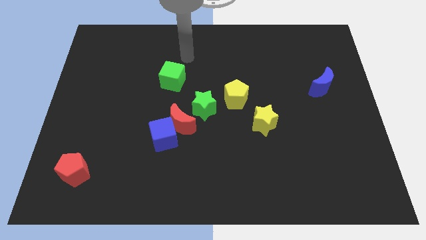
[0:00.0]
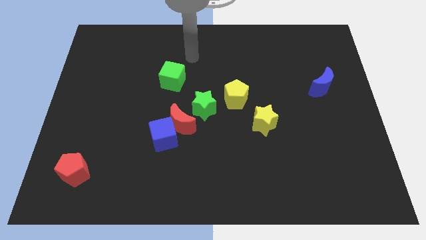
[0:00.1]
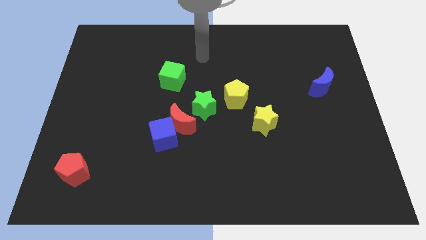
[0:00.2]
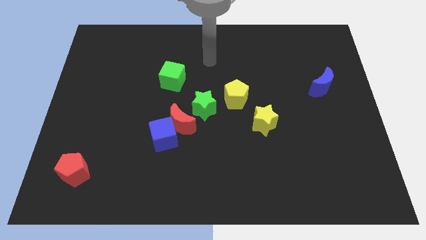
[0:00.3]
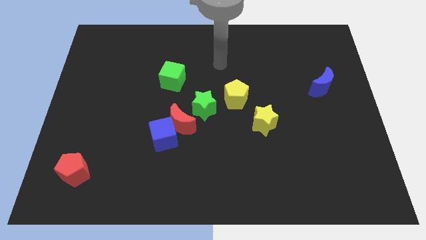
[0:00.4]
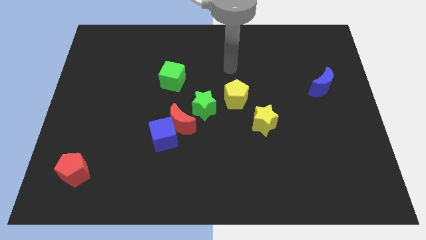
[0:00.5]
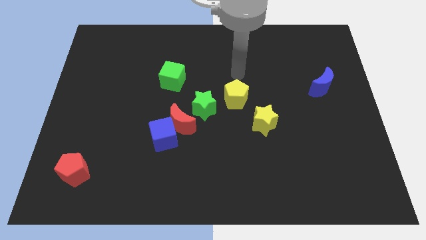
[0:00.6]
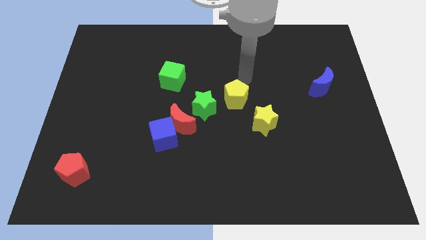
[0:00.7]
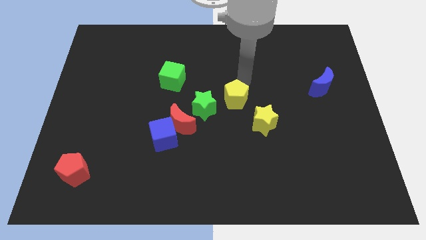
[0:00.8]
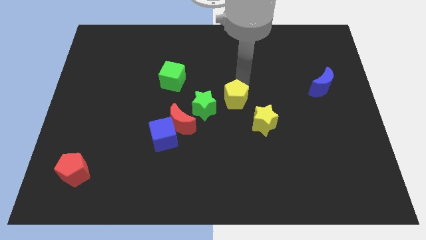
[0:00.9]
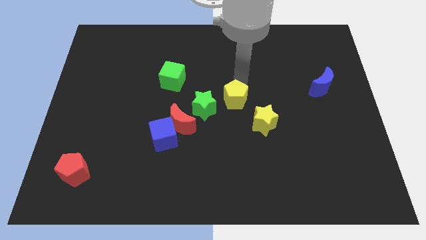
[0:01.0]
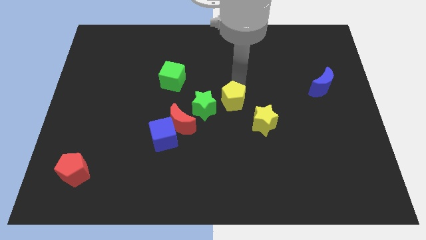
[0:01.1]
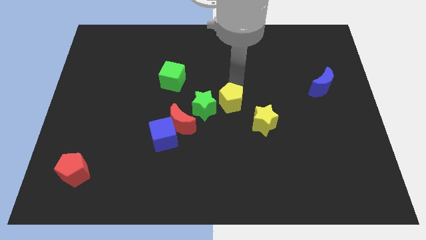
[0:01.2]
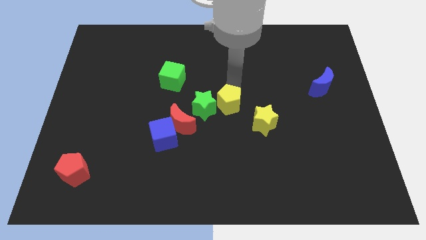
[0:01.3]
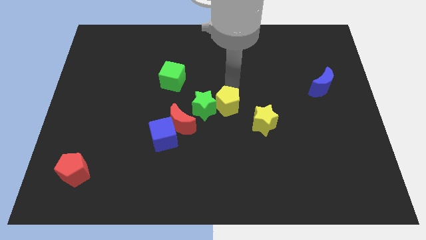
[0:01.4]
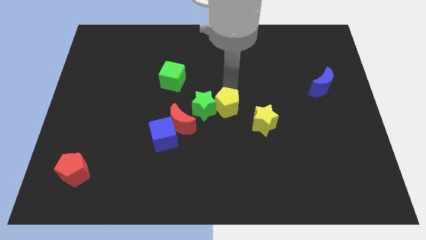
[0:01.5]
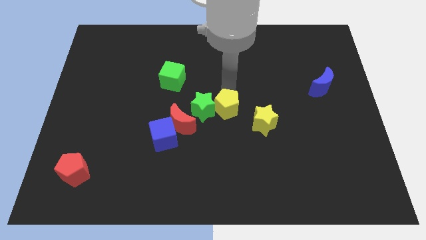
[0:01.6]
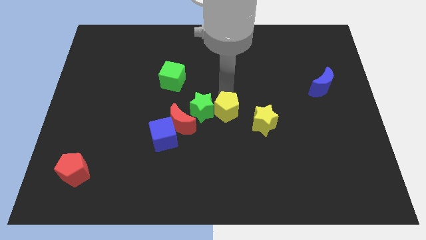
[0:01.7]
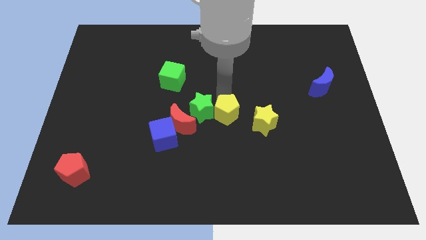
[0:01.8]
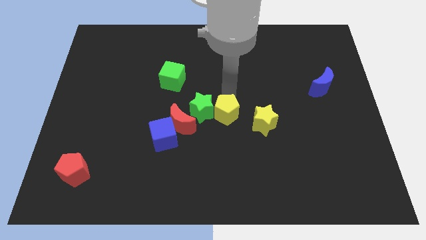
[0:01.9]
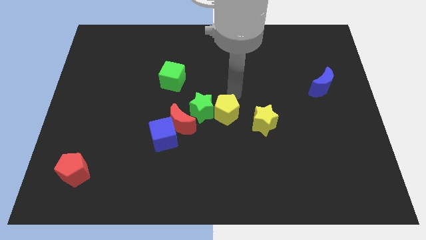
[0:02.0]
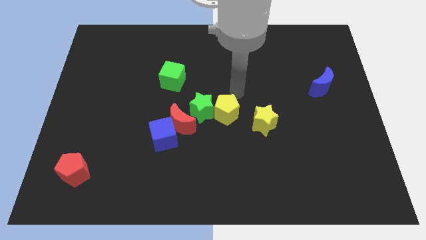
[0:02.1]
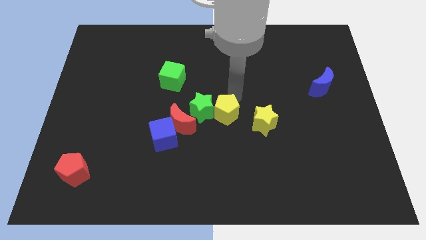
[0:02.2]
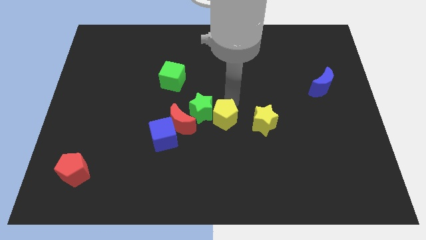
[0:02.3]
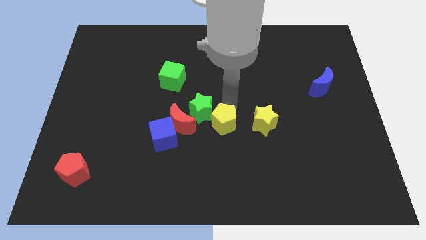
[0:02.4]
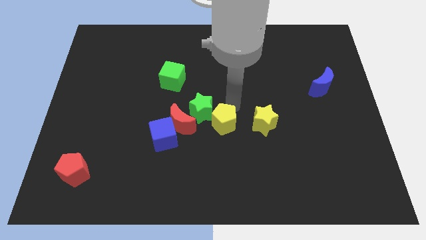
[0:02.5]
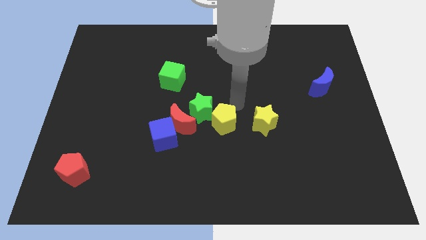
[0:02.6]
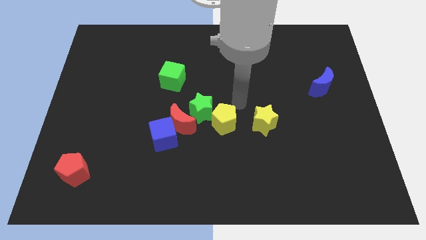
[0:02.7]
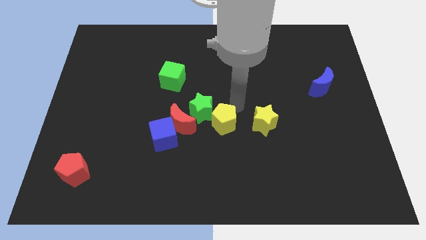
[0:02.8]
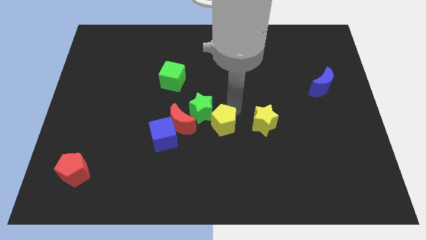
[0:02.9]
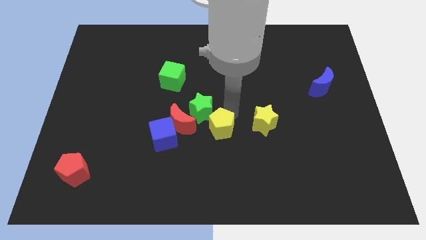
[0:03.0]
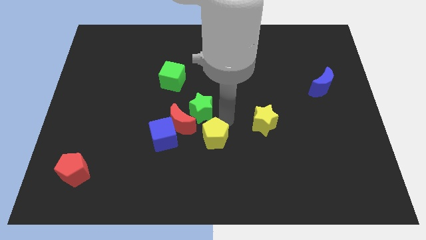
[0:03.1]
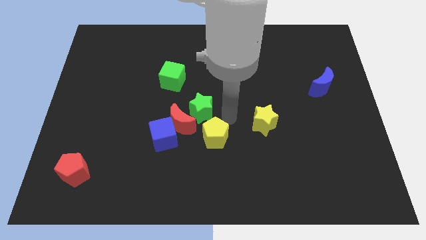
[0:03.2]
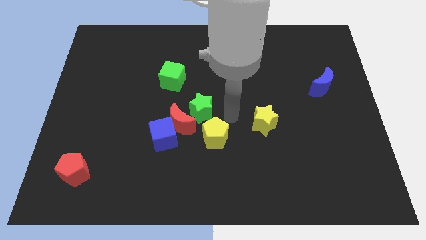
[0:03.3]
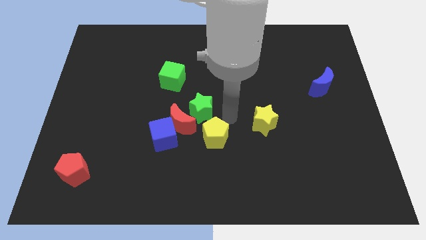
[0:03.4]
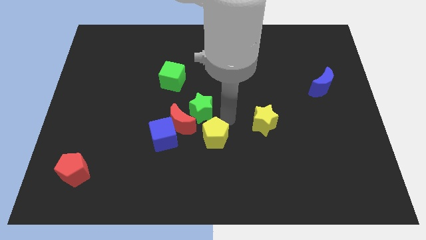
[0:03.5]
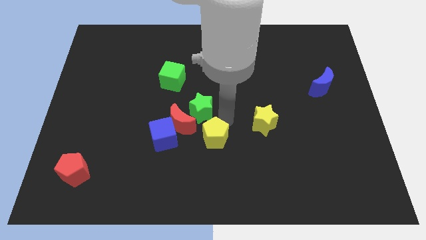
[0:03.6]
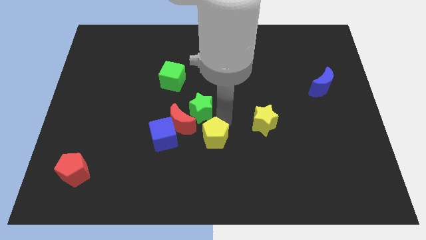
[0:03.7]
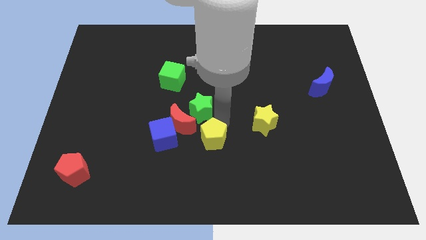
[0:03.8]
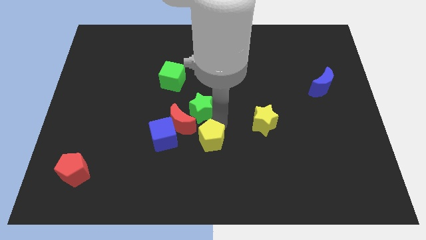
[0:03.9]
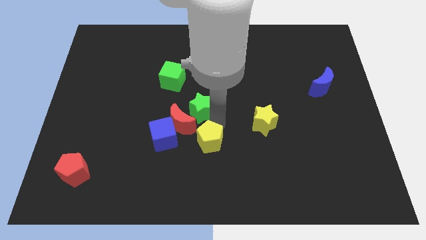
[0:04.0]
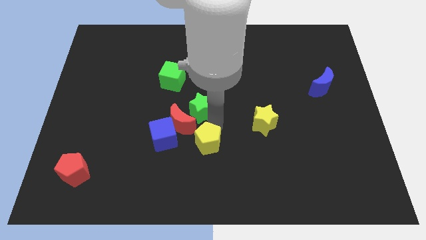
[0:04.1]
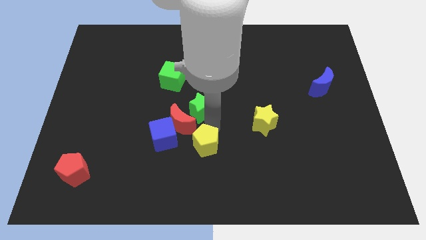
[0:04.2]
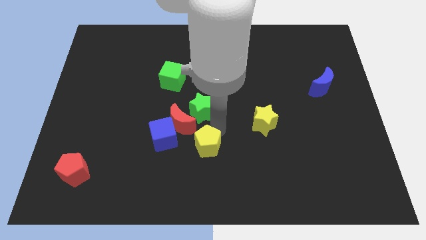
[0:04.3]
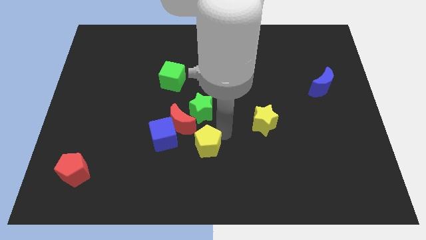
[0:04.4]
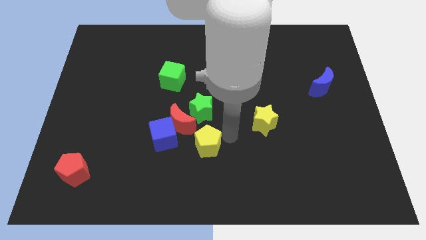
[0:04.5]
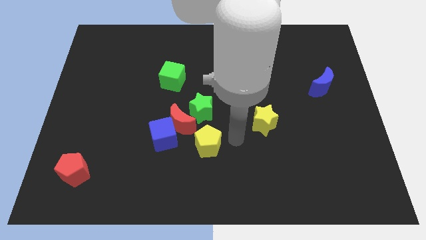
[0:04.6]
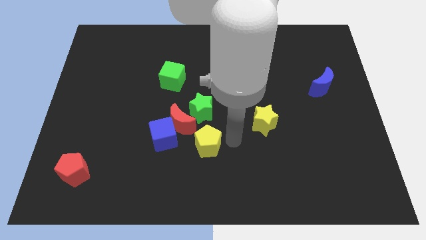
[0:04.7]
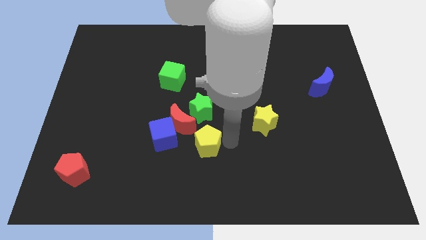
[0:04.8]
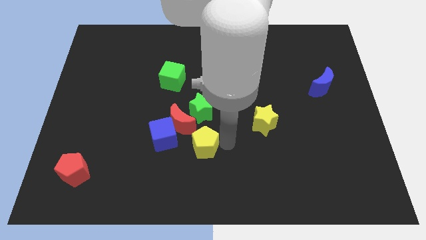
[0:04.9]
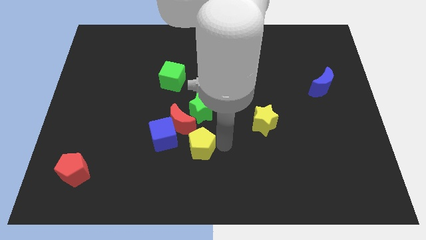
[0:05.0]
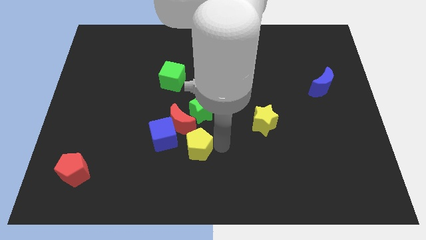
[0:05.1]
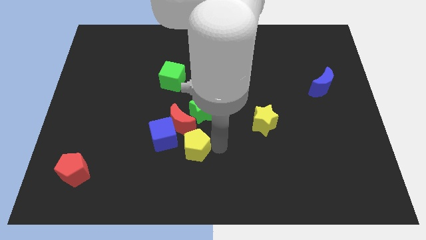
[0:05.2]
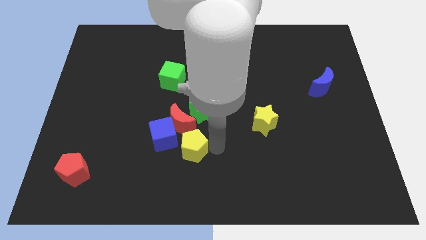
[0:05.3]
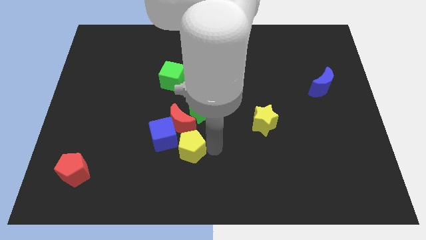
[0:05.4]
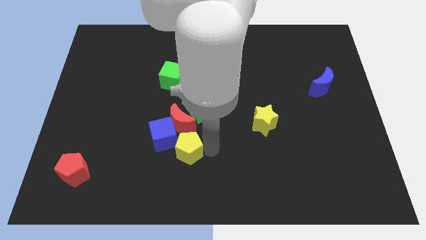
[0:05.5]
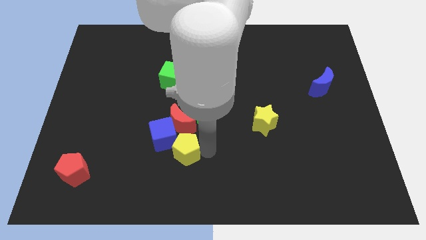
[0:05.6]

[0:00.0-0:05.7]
push the yellow pentagon next to the blue cube

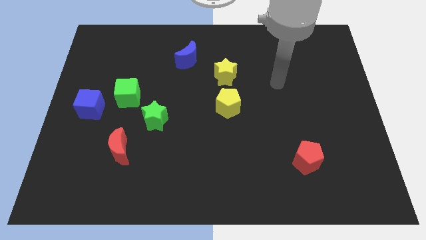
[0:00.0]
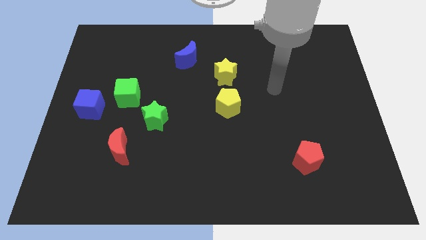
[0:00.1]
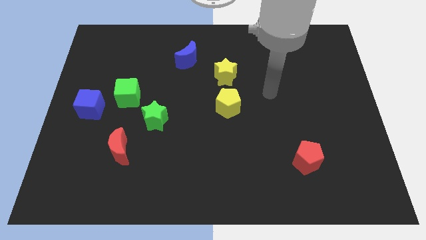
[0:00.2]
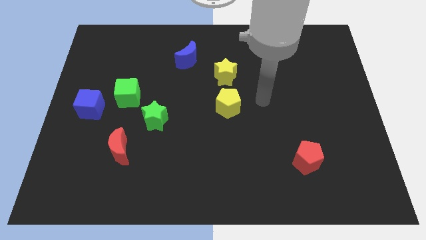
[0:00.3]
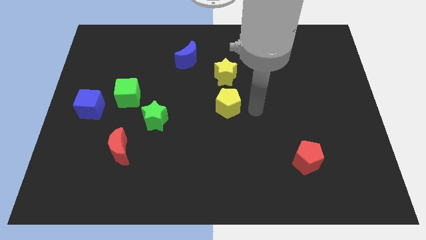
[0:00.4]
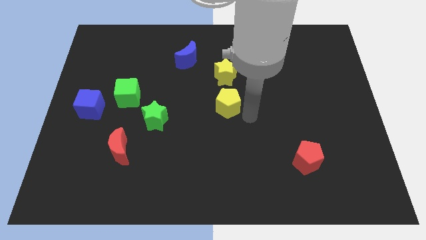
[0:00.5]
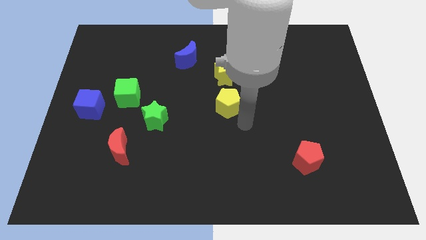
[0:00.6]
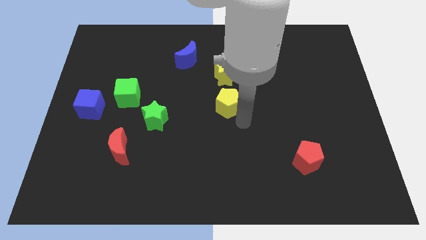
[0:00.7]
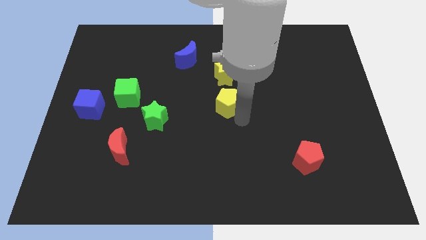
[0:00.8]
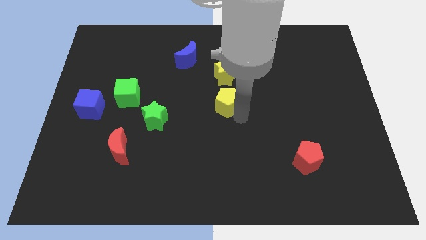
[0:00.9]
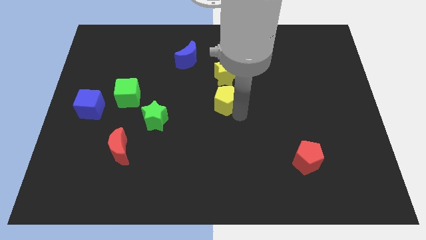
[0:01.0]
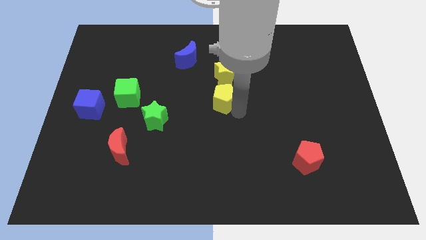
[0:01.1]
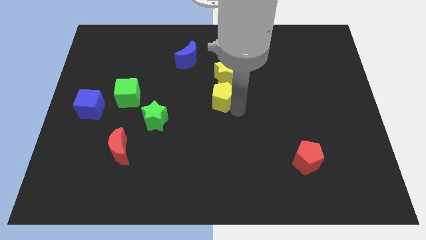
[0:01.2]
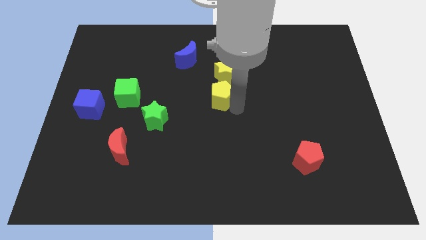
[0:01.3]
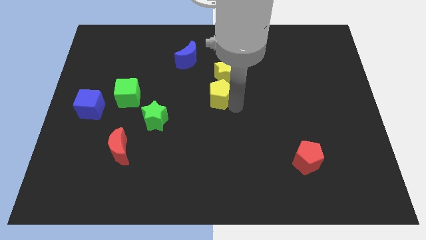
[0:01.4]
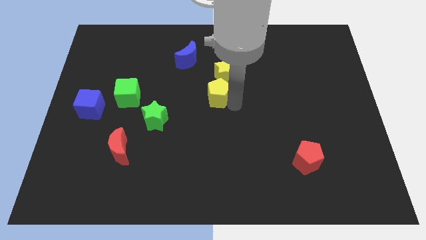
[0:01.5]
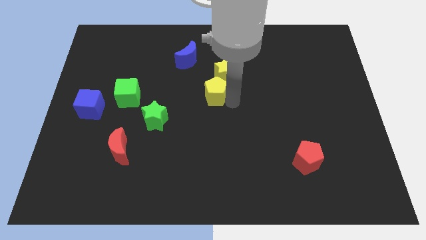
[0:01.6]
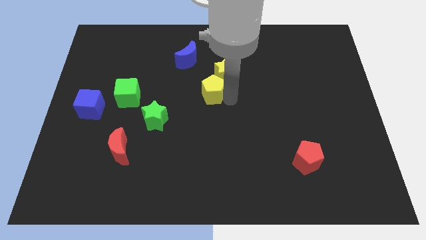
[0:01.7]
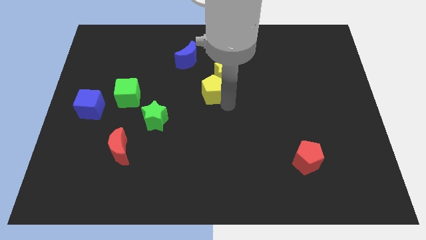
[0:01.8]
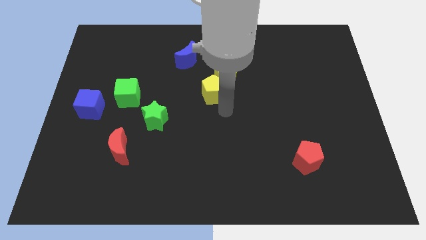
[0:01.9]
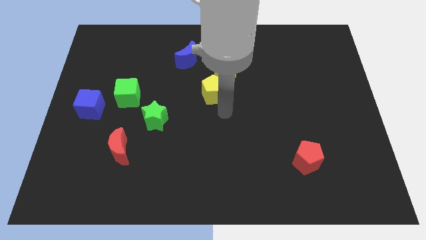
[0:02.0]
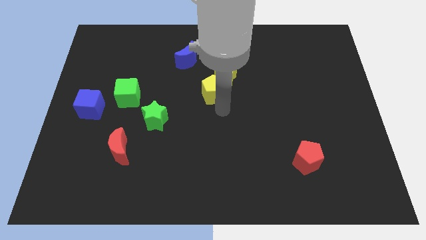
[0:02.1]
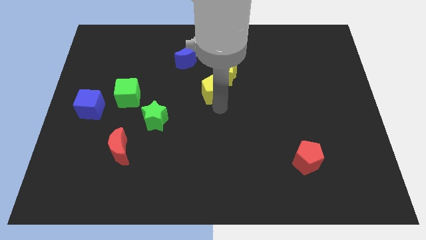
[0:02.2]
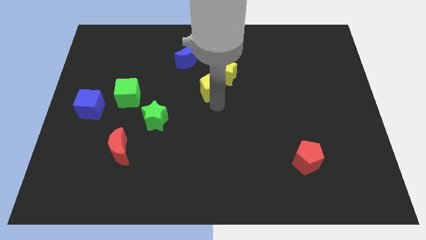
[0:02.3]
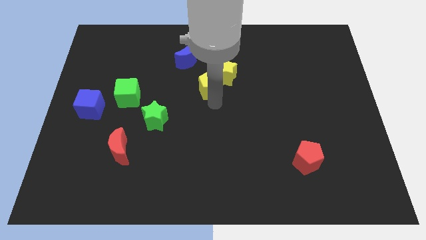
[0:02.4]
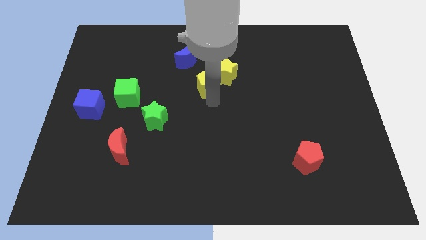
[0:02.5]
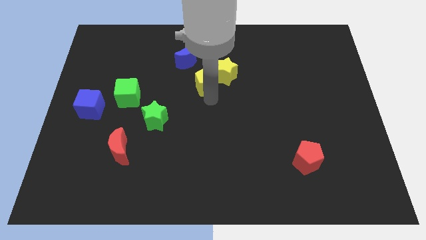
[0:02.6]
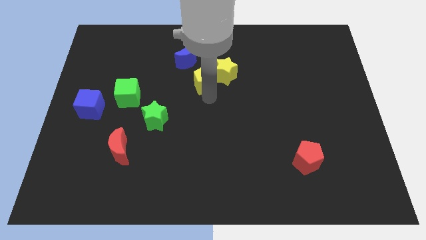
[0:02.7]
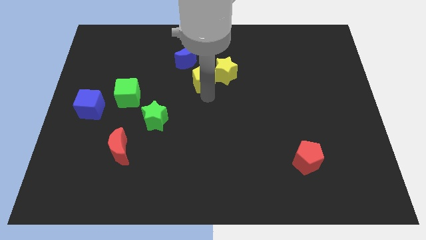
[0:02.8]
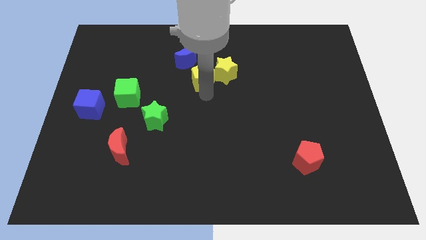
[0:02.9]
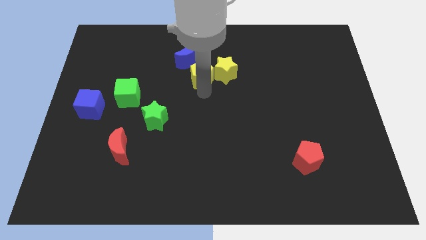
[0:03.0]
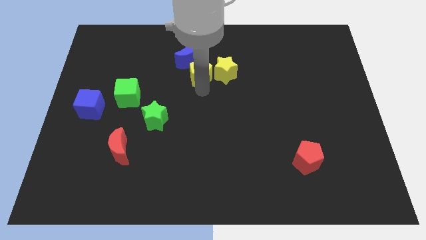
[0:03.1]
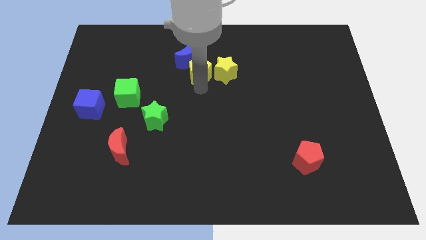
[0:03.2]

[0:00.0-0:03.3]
push the yellow pentagon to the blue moon
